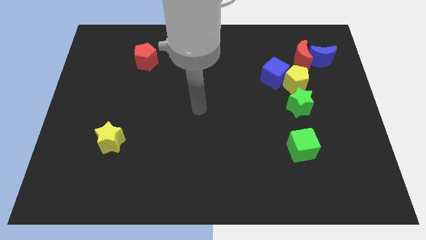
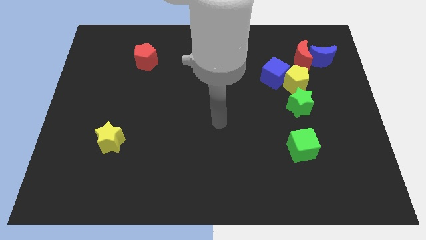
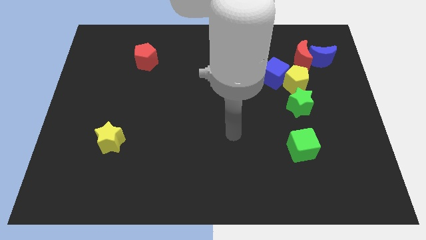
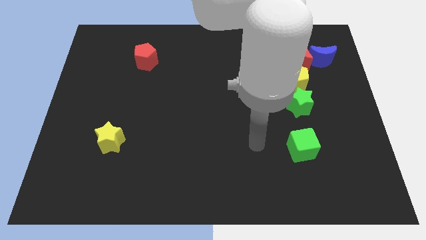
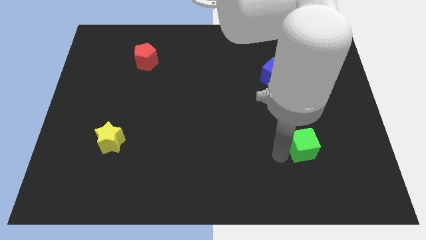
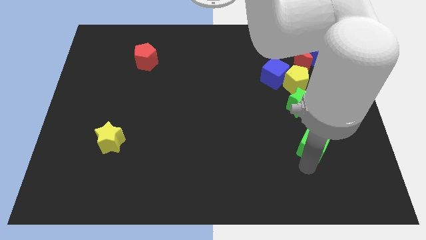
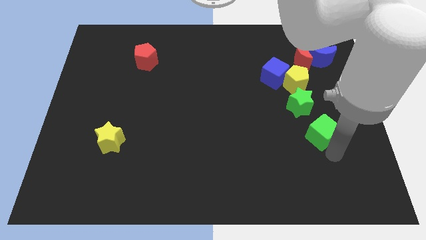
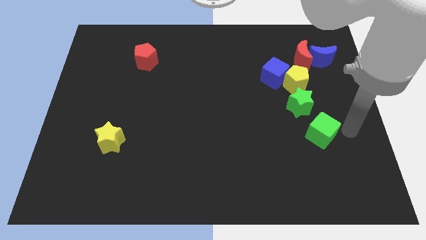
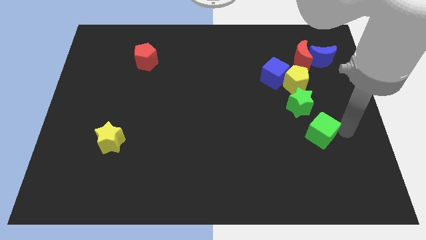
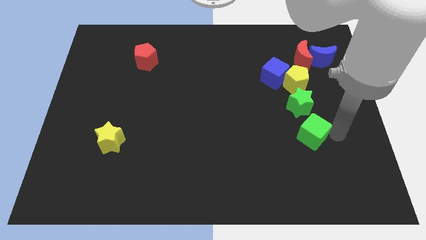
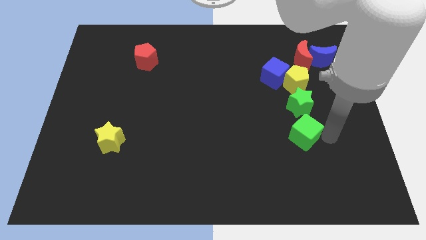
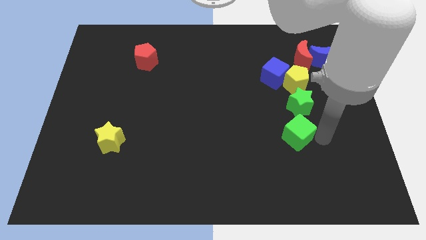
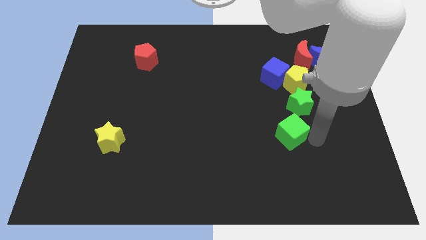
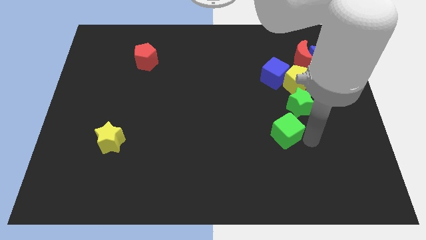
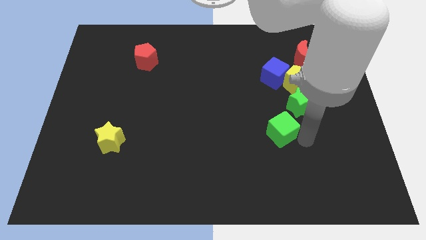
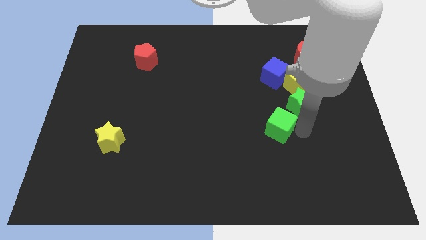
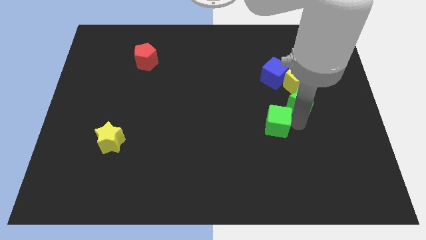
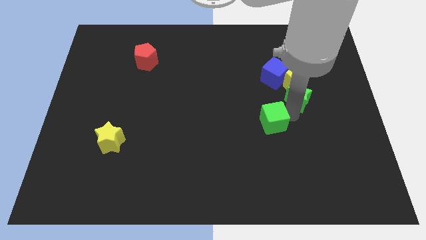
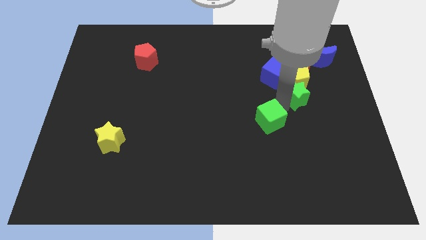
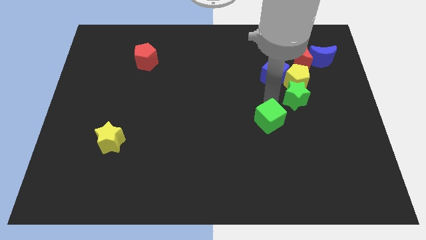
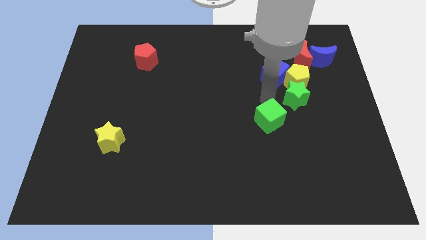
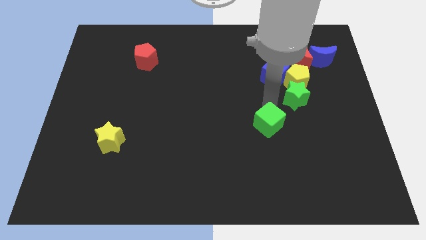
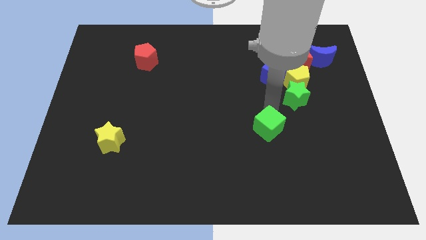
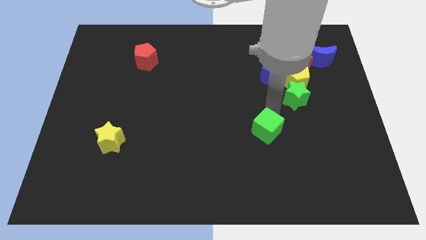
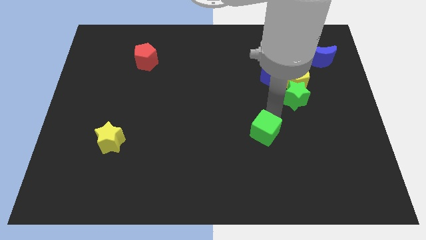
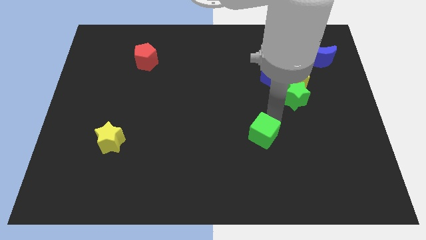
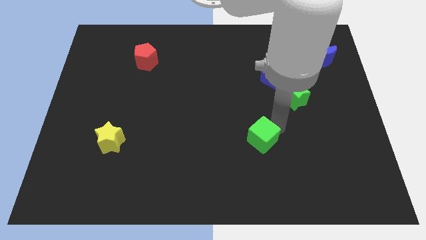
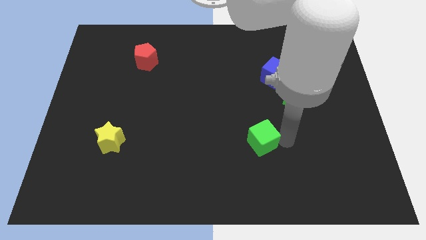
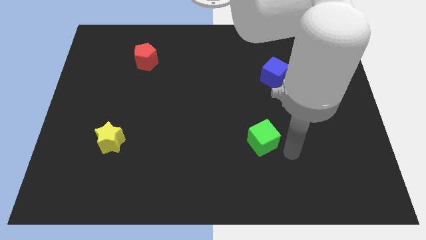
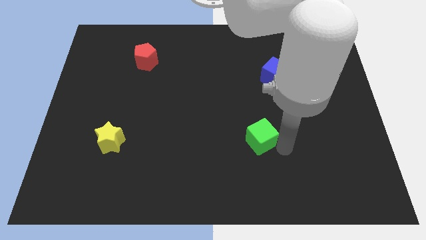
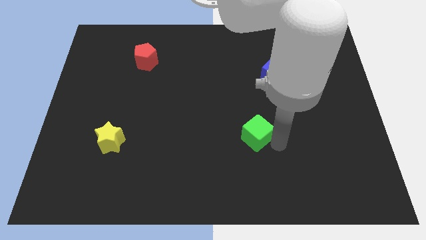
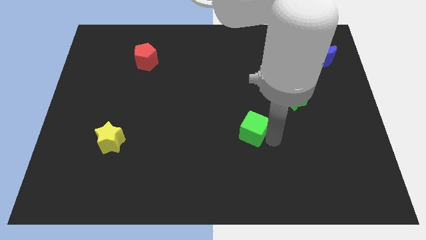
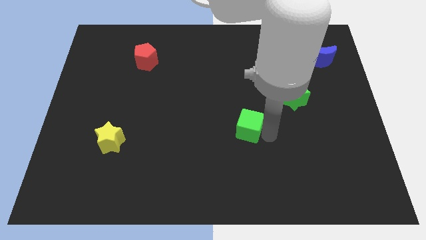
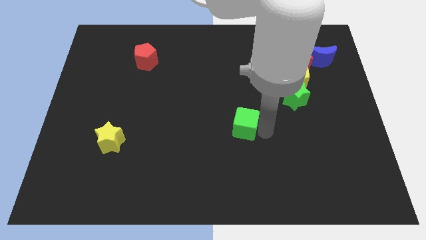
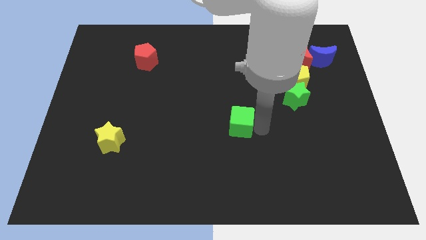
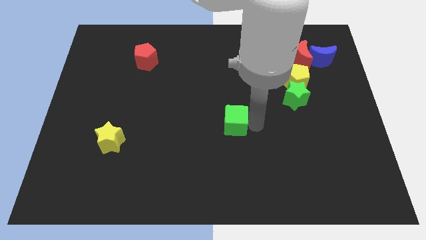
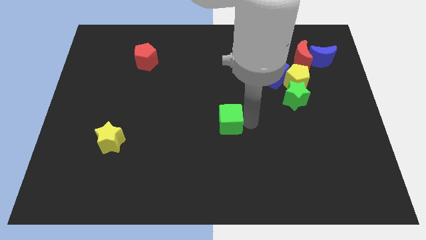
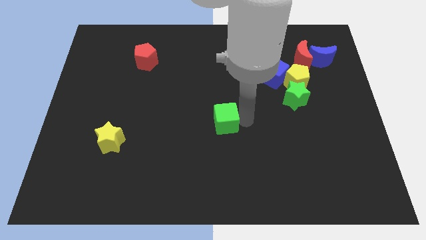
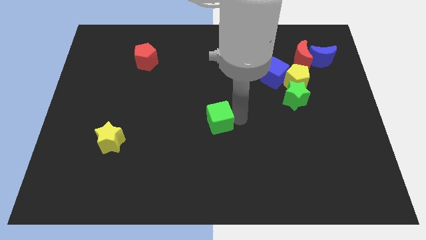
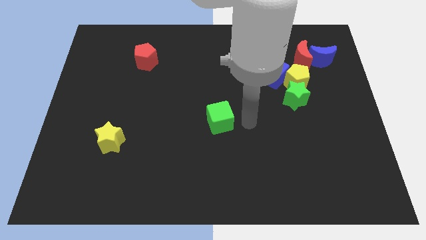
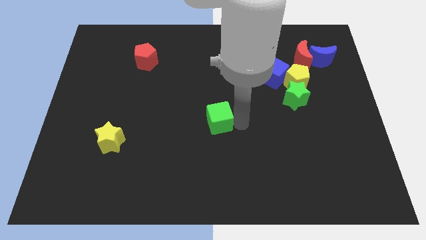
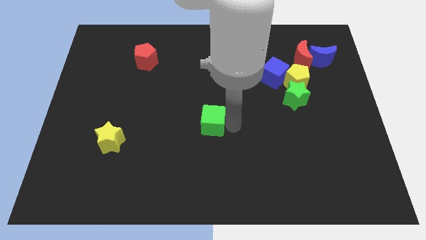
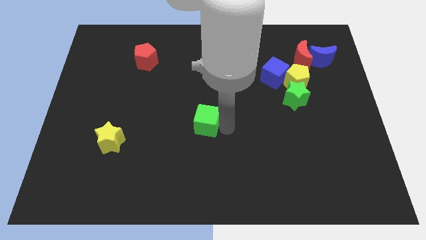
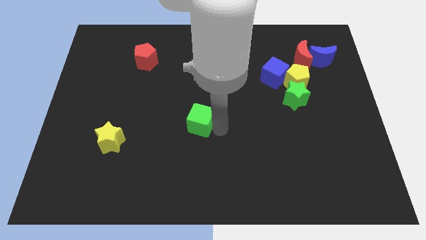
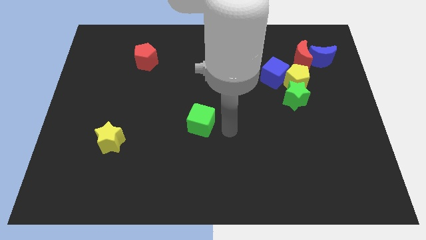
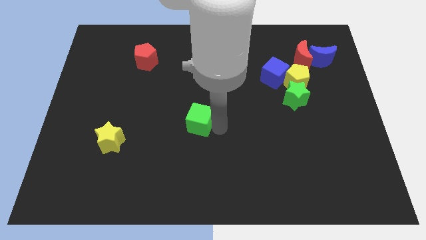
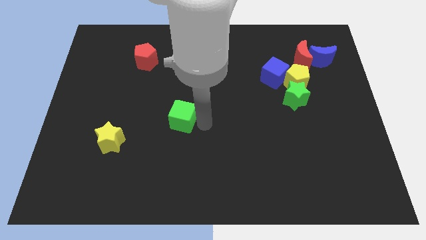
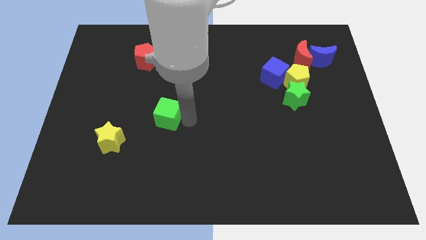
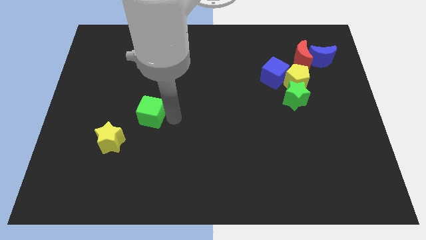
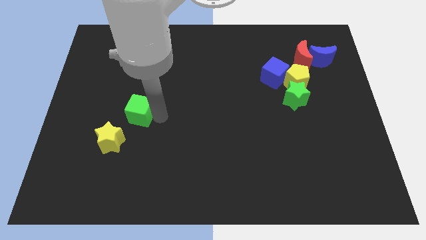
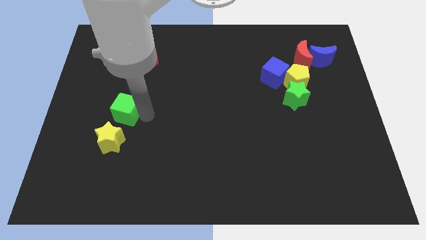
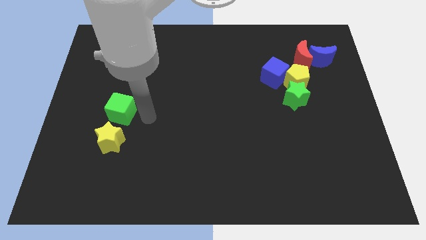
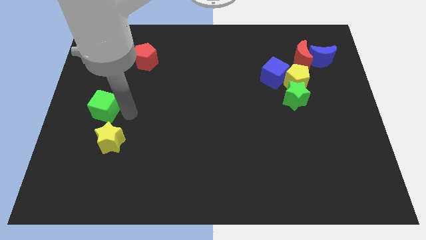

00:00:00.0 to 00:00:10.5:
push the green cube to the left side of the board
